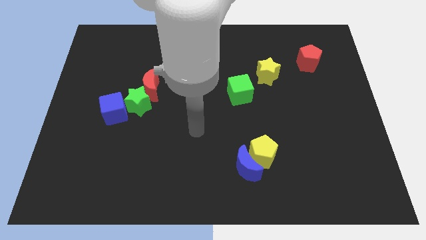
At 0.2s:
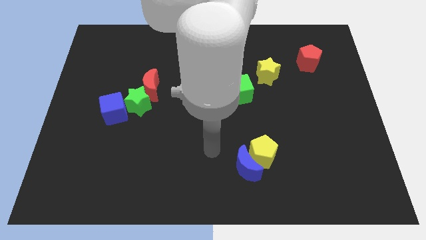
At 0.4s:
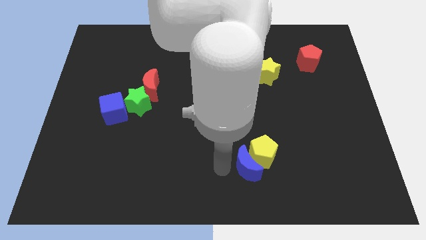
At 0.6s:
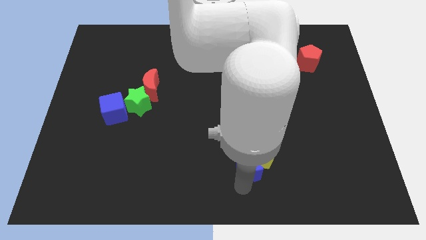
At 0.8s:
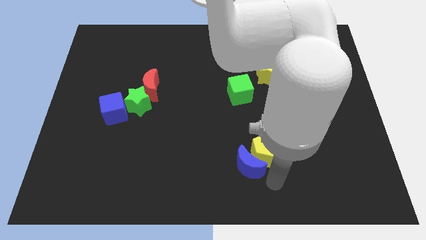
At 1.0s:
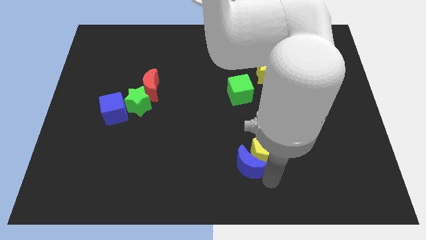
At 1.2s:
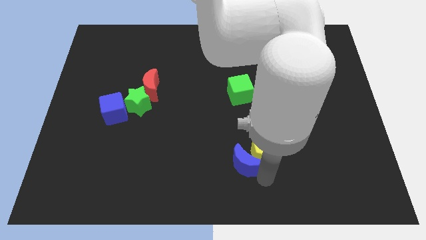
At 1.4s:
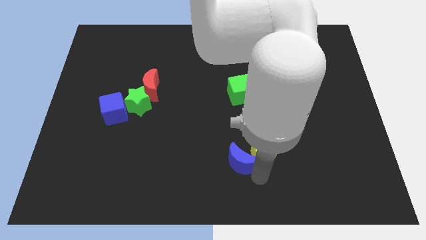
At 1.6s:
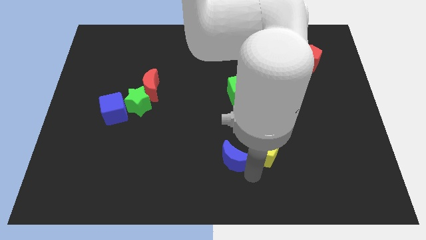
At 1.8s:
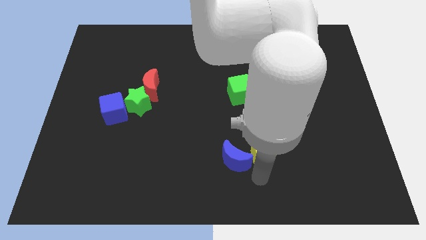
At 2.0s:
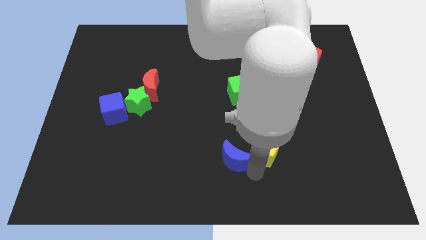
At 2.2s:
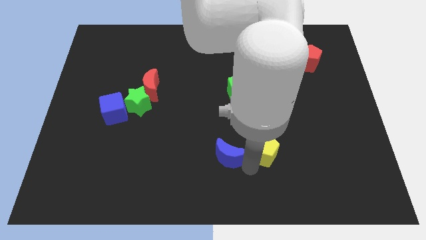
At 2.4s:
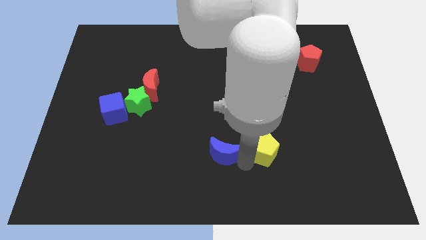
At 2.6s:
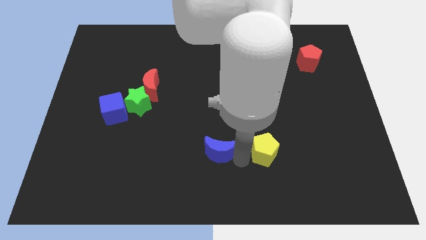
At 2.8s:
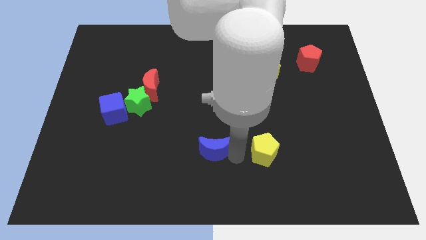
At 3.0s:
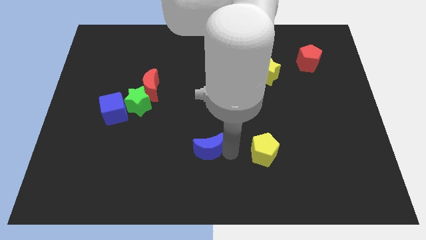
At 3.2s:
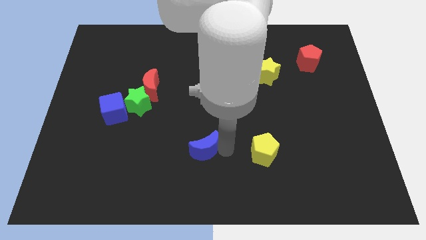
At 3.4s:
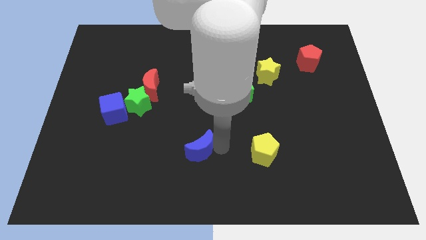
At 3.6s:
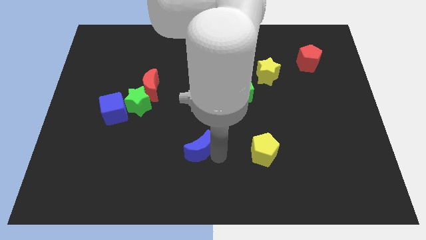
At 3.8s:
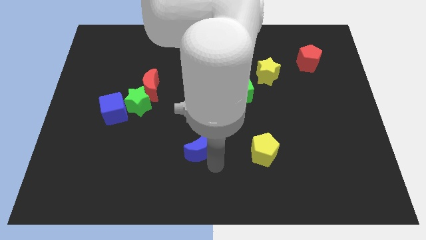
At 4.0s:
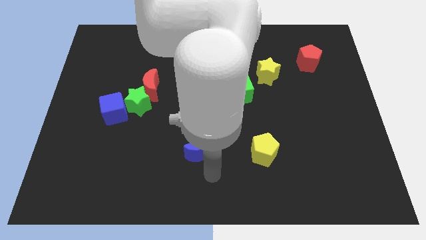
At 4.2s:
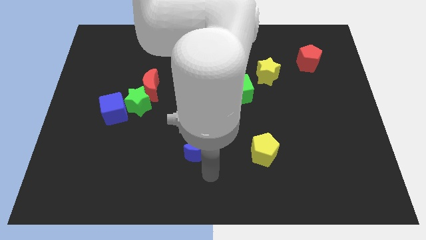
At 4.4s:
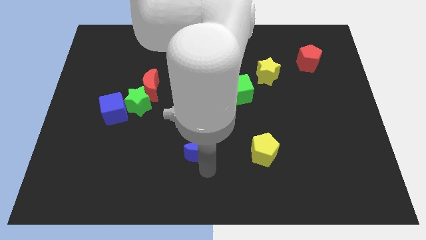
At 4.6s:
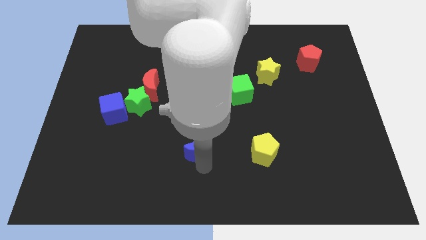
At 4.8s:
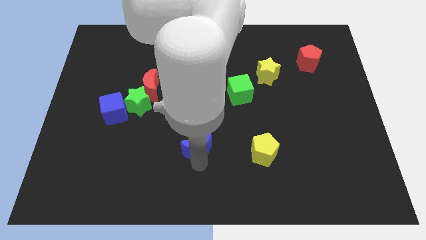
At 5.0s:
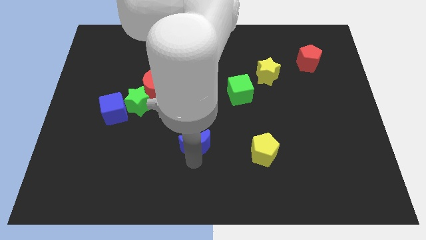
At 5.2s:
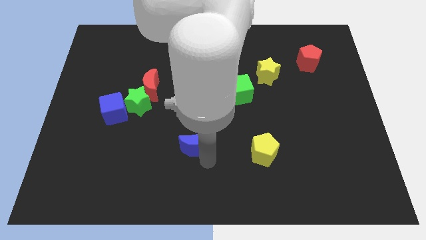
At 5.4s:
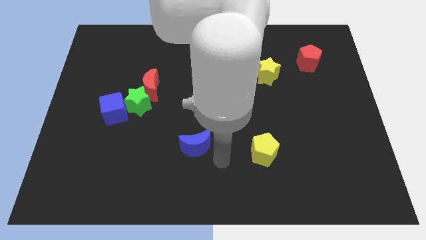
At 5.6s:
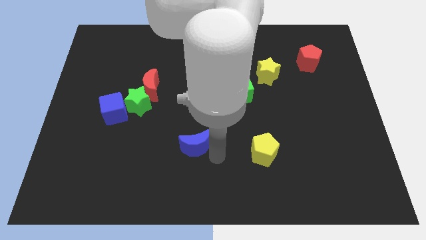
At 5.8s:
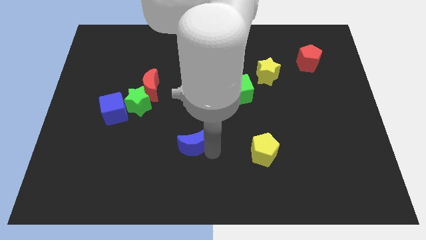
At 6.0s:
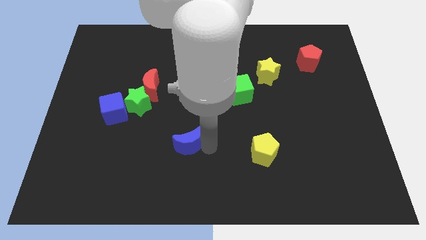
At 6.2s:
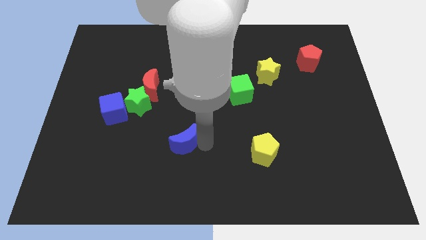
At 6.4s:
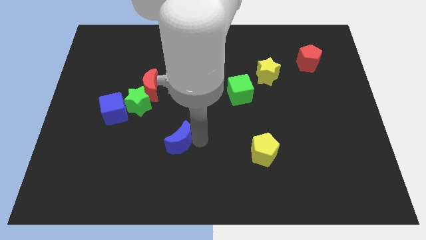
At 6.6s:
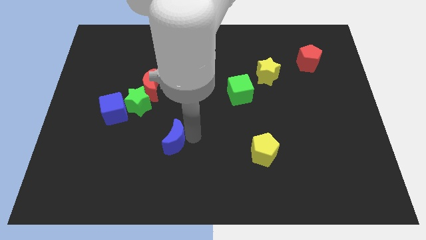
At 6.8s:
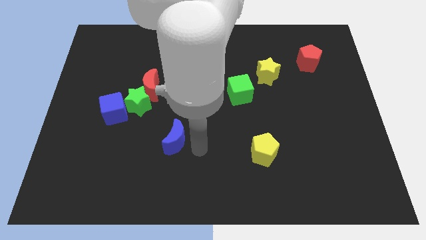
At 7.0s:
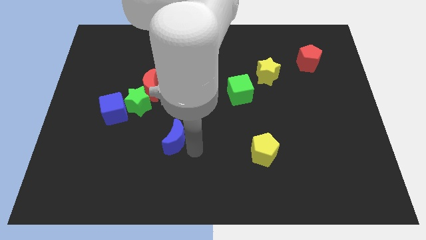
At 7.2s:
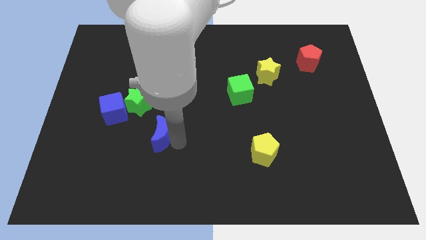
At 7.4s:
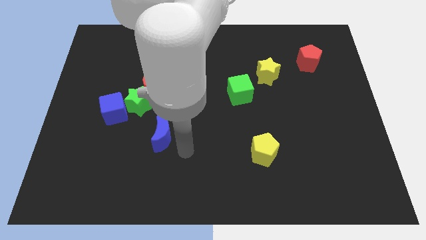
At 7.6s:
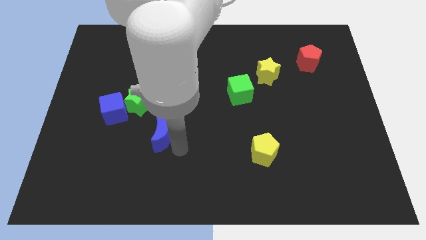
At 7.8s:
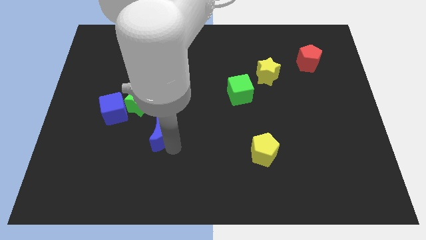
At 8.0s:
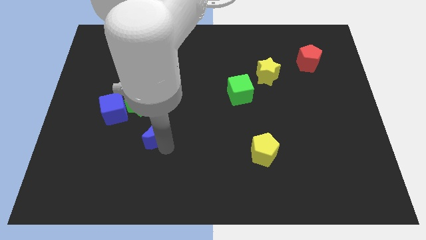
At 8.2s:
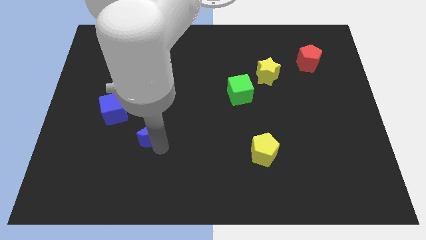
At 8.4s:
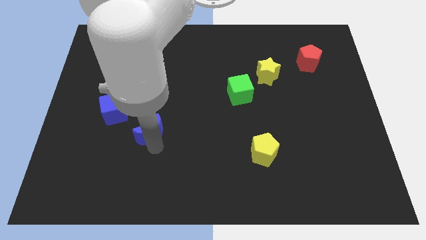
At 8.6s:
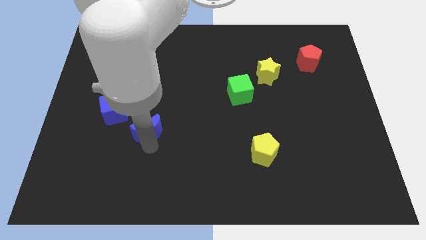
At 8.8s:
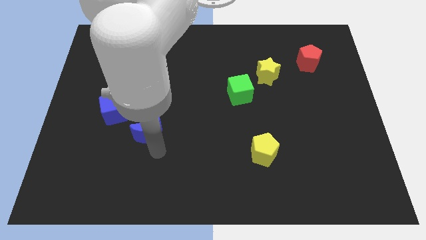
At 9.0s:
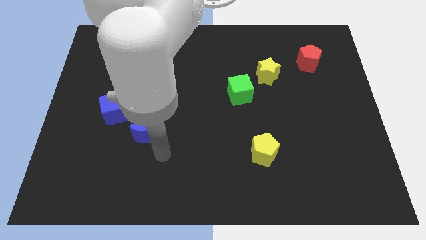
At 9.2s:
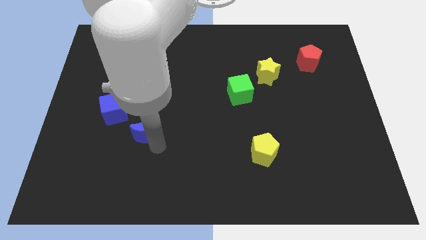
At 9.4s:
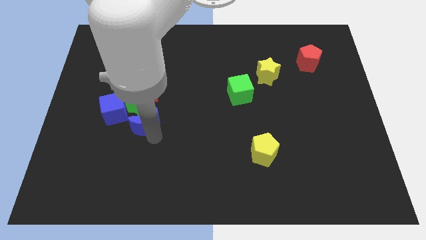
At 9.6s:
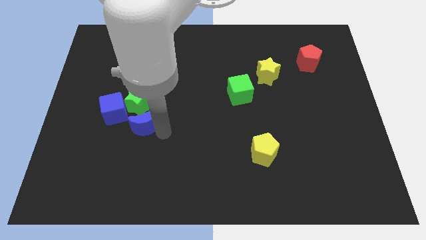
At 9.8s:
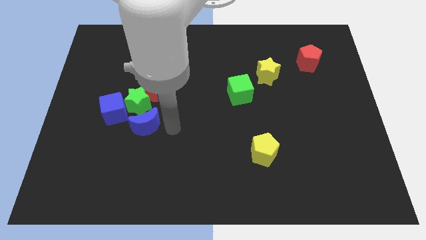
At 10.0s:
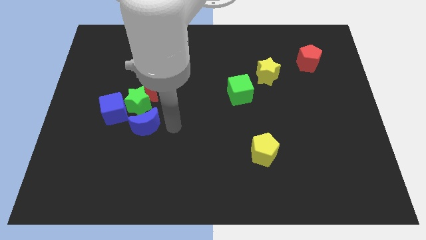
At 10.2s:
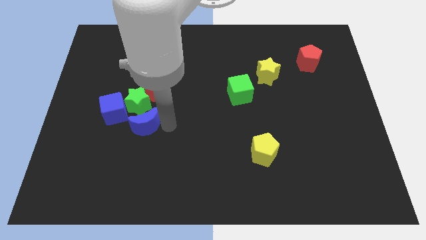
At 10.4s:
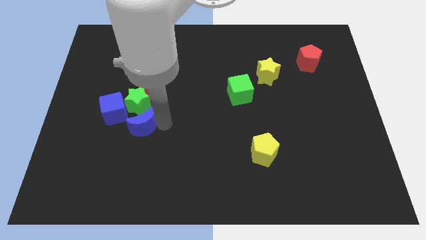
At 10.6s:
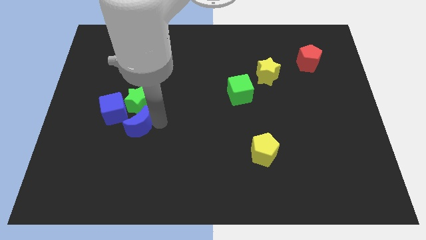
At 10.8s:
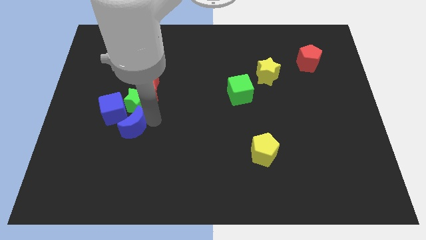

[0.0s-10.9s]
slide the blue moon diagonally down and to the left of the green star

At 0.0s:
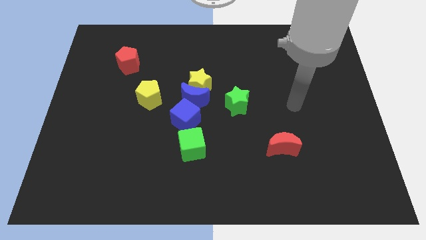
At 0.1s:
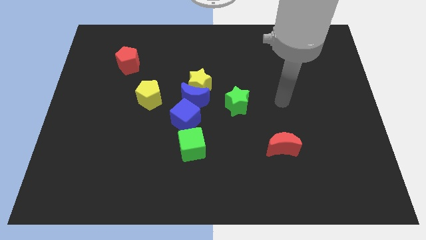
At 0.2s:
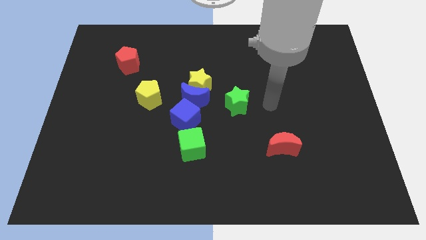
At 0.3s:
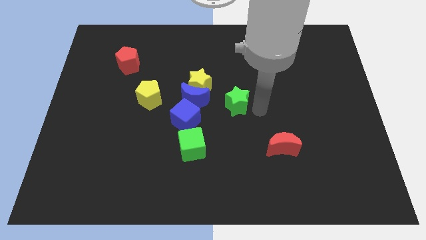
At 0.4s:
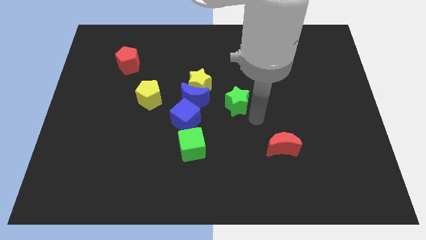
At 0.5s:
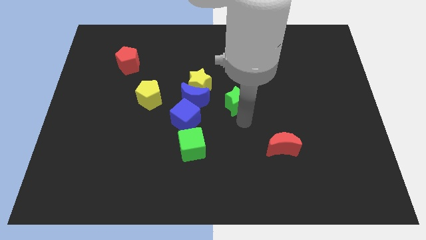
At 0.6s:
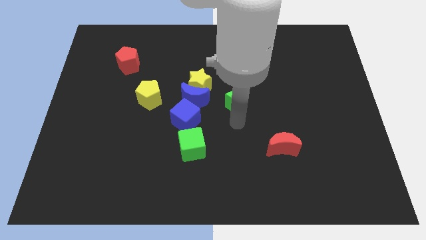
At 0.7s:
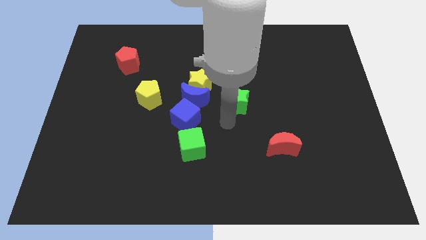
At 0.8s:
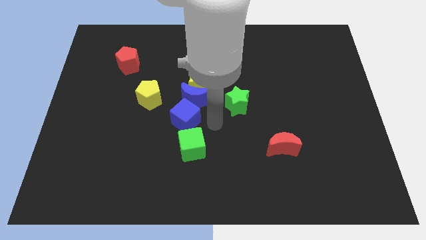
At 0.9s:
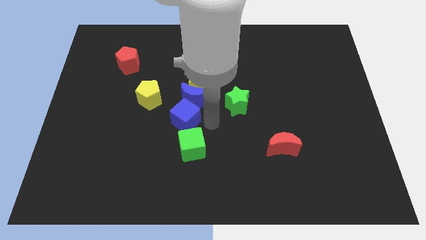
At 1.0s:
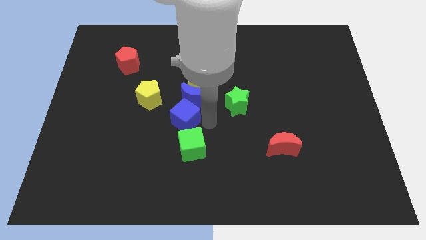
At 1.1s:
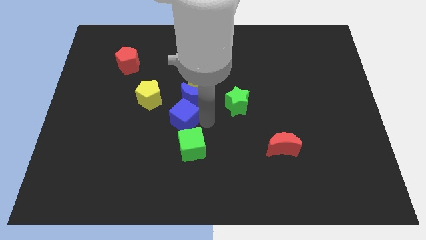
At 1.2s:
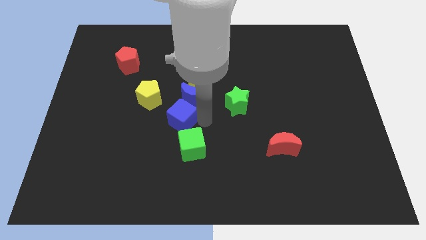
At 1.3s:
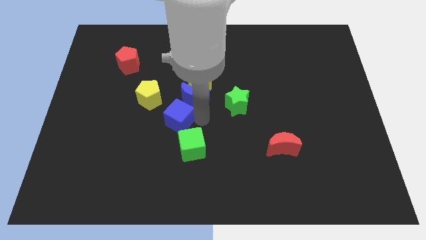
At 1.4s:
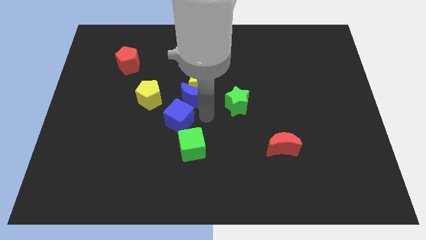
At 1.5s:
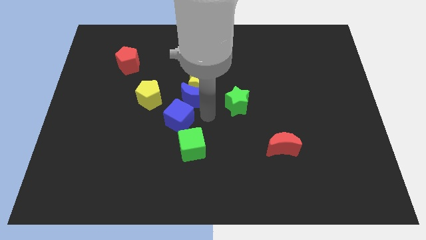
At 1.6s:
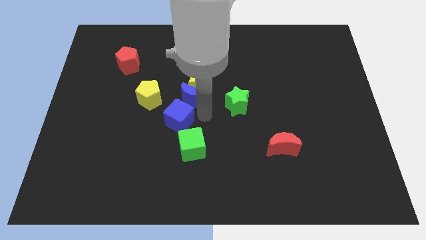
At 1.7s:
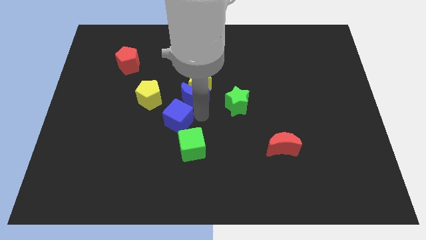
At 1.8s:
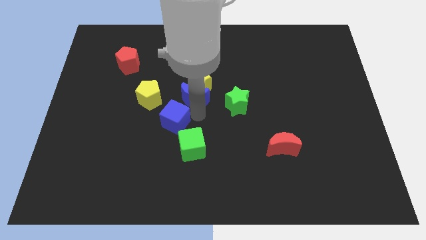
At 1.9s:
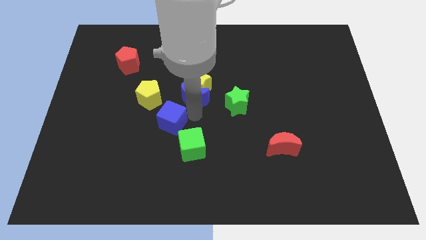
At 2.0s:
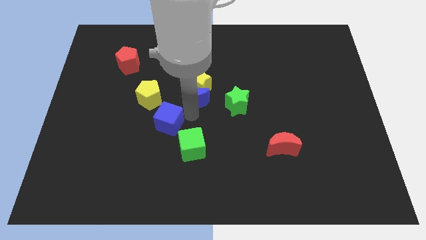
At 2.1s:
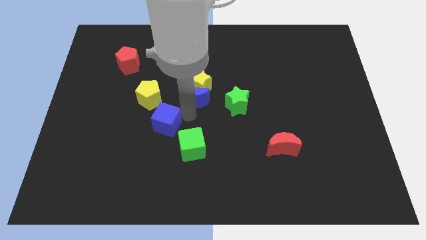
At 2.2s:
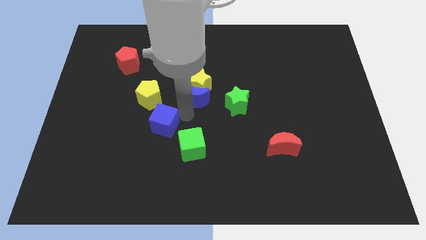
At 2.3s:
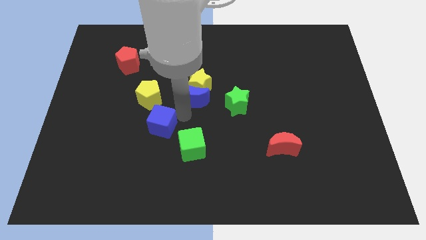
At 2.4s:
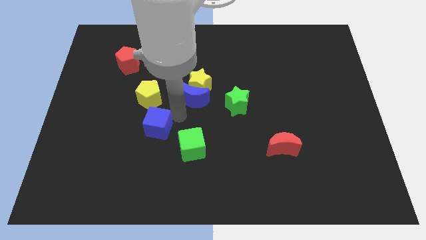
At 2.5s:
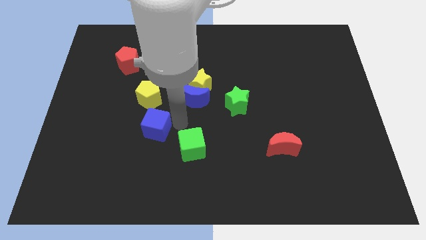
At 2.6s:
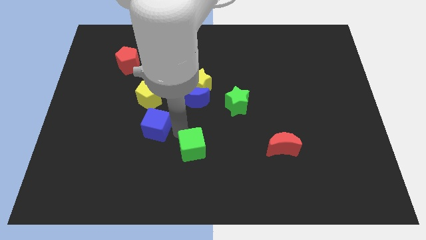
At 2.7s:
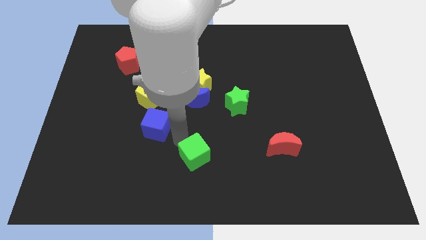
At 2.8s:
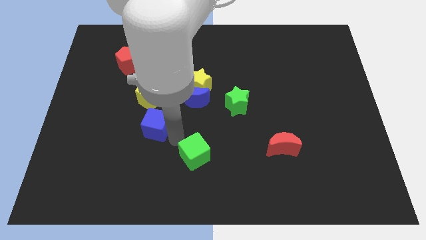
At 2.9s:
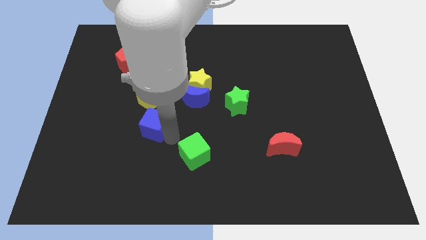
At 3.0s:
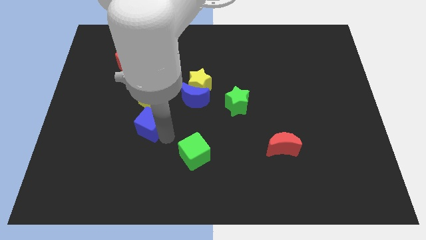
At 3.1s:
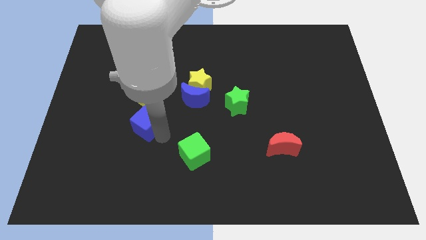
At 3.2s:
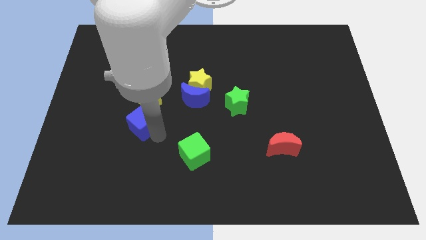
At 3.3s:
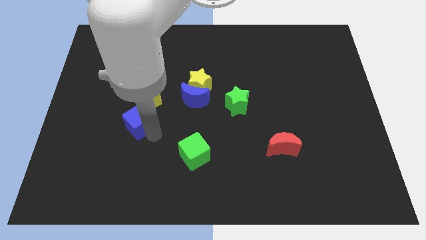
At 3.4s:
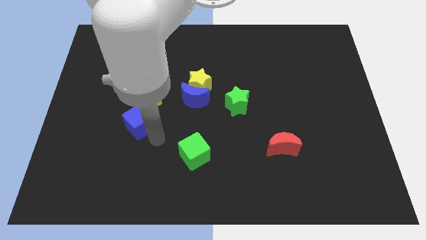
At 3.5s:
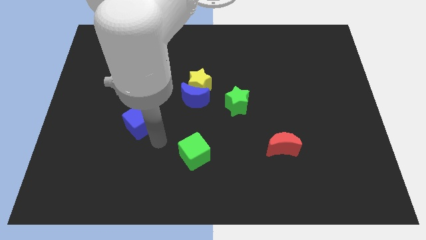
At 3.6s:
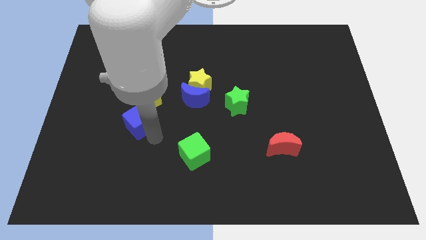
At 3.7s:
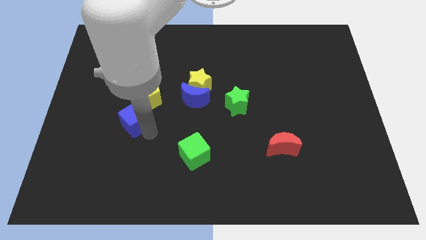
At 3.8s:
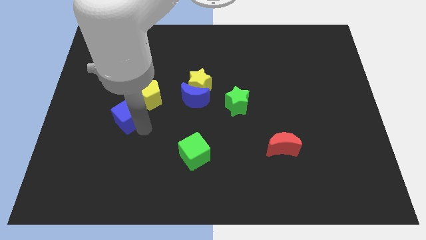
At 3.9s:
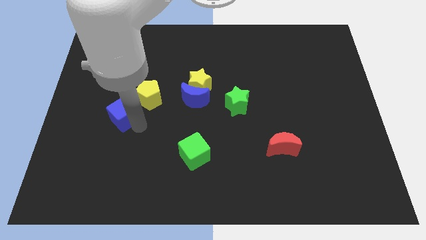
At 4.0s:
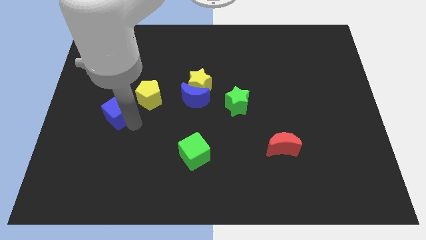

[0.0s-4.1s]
slide the blue cube to the left side of the yellow pentagon
